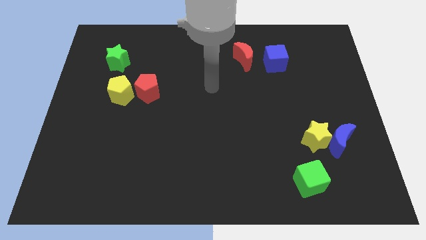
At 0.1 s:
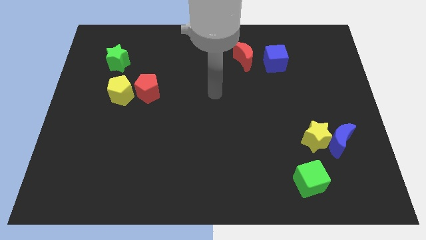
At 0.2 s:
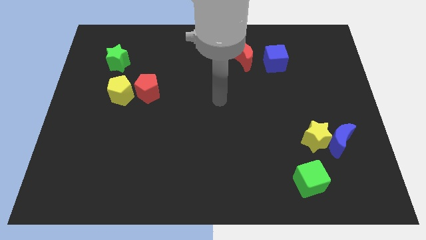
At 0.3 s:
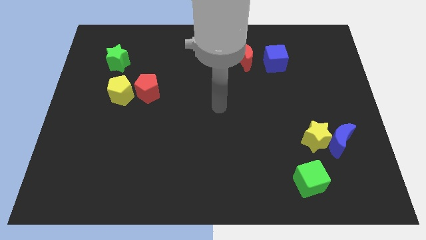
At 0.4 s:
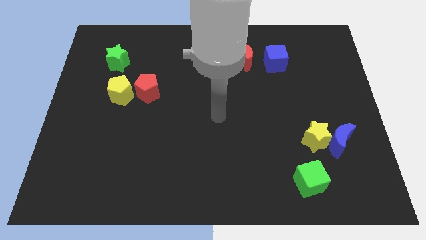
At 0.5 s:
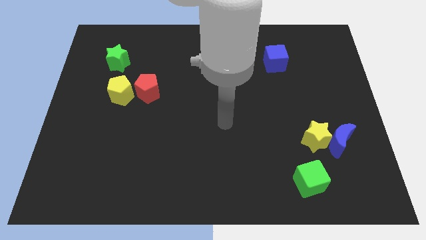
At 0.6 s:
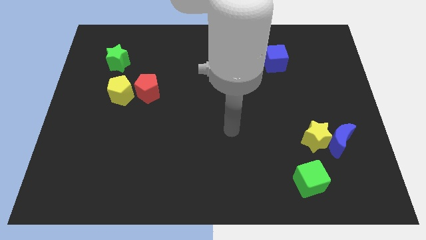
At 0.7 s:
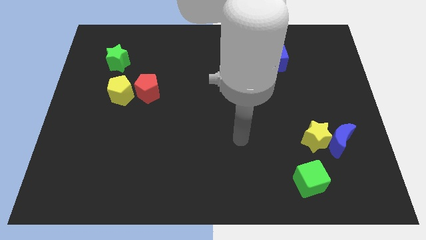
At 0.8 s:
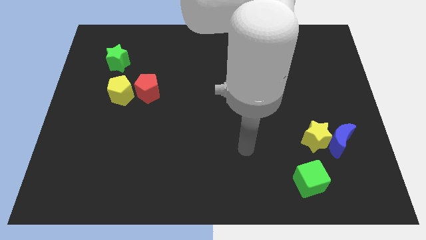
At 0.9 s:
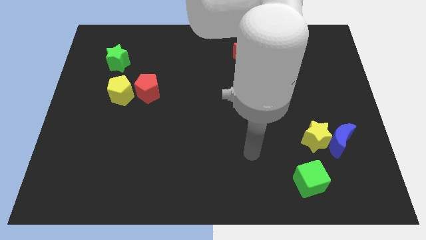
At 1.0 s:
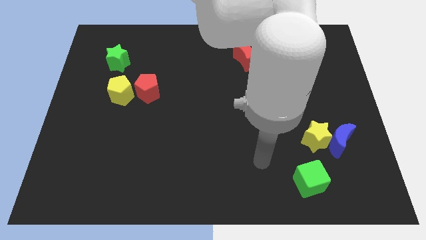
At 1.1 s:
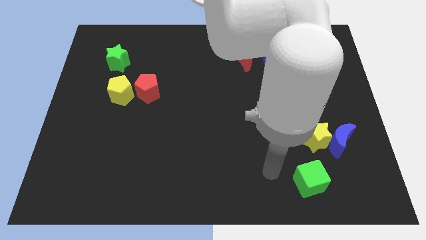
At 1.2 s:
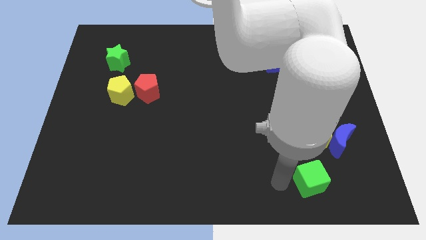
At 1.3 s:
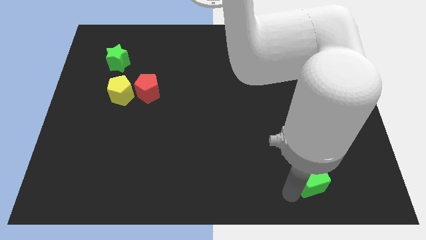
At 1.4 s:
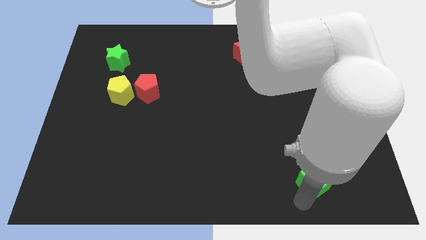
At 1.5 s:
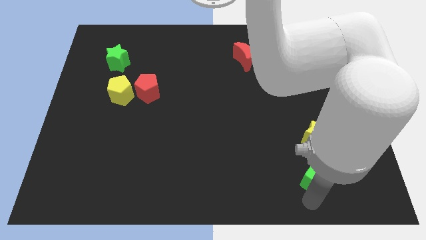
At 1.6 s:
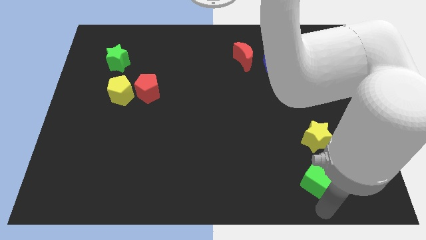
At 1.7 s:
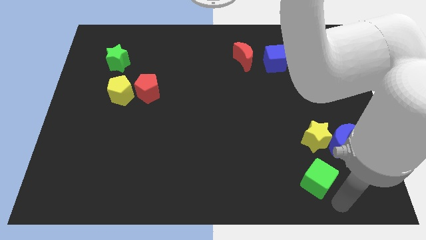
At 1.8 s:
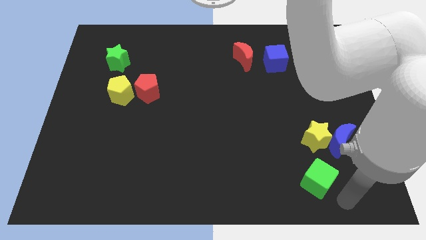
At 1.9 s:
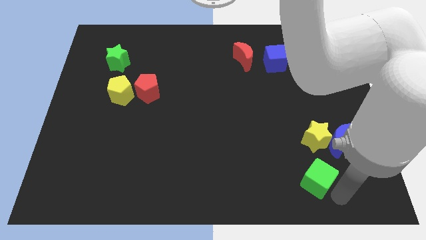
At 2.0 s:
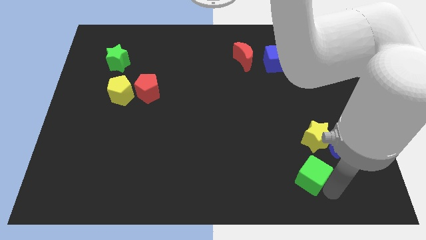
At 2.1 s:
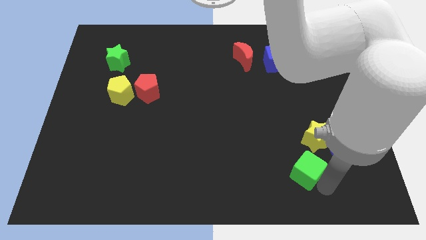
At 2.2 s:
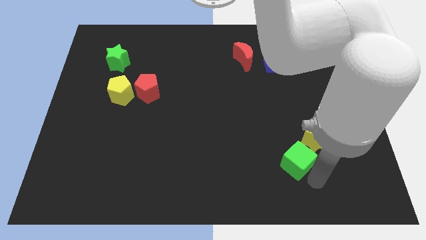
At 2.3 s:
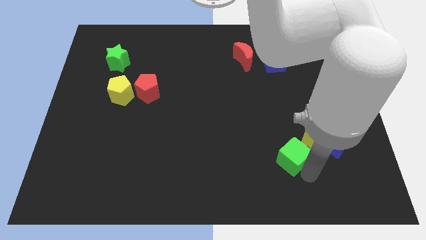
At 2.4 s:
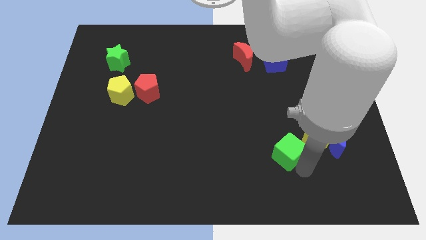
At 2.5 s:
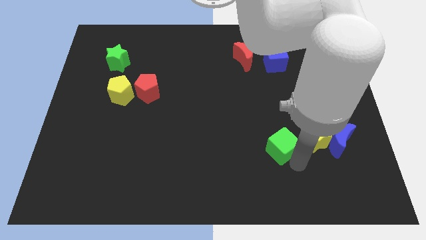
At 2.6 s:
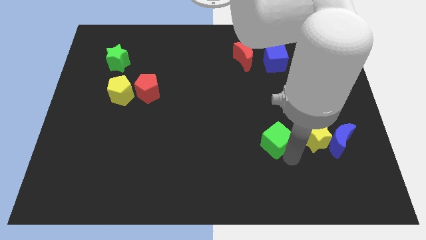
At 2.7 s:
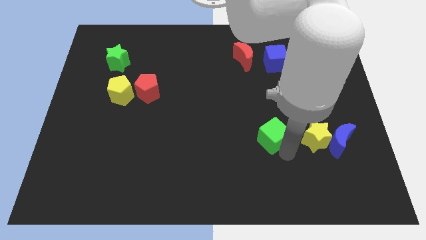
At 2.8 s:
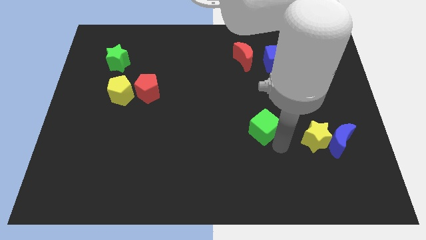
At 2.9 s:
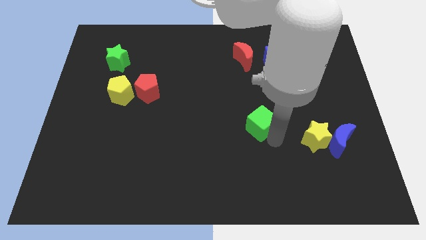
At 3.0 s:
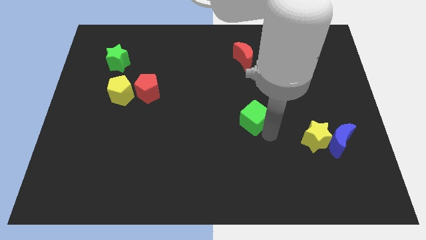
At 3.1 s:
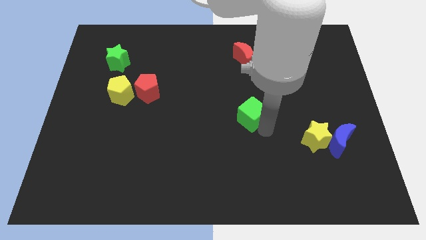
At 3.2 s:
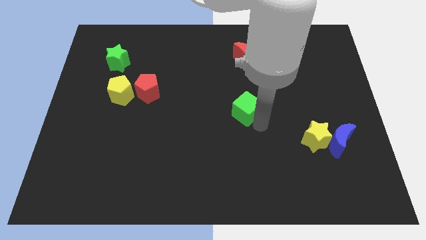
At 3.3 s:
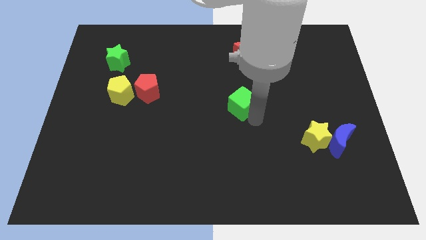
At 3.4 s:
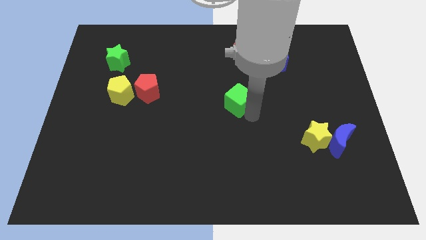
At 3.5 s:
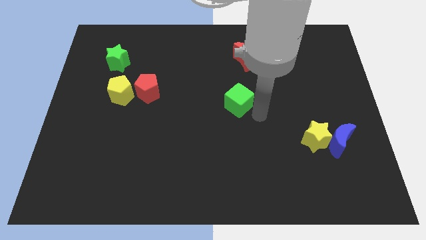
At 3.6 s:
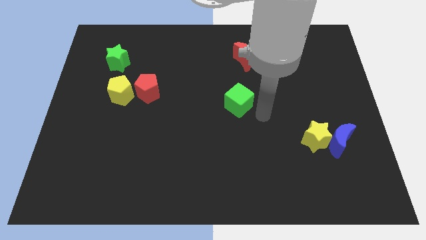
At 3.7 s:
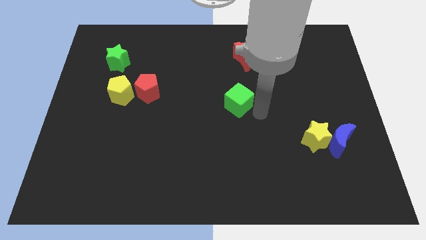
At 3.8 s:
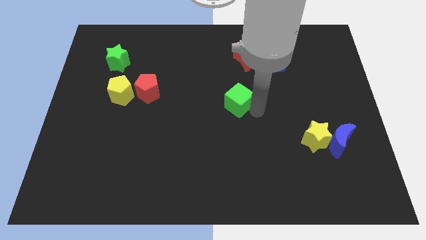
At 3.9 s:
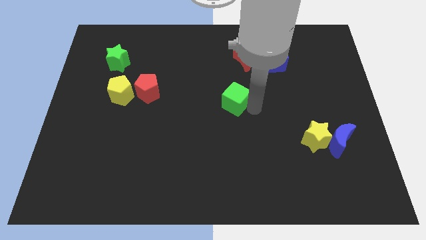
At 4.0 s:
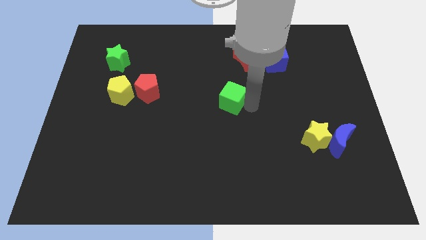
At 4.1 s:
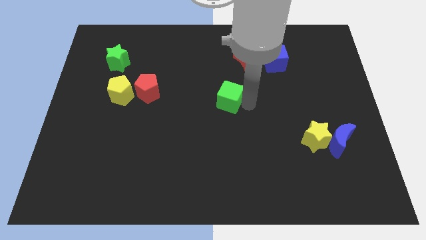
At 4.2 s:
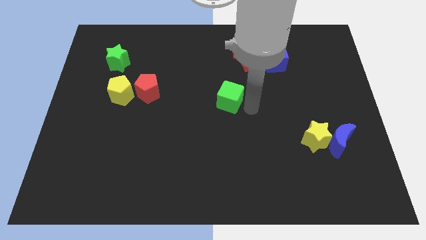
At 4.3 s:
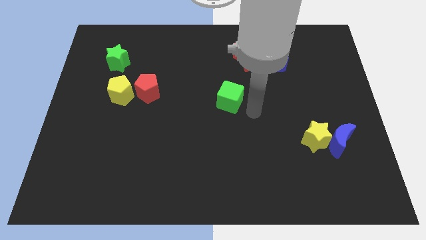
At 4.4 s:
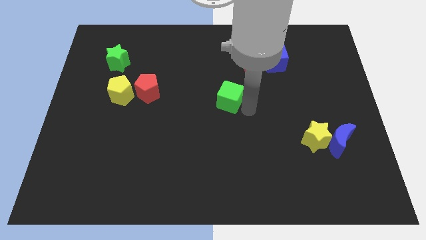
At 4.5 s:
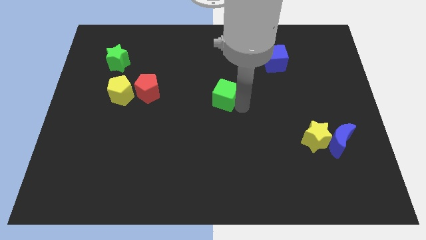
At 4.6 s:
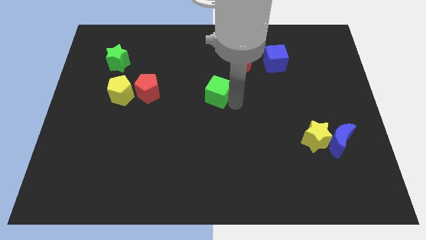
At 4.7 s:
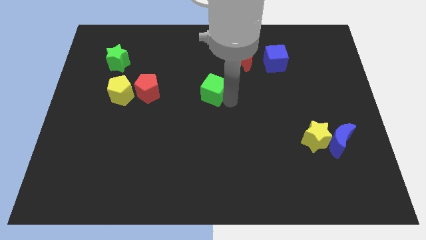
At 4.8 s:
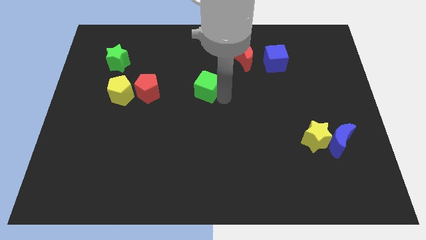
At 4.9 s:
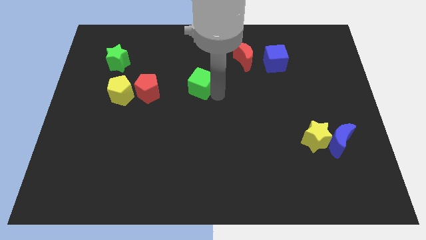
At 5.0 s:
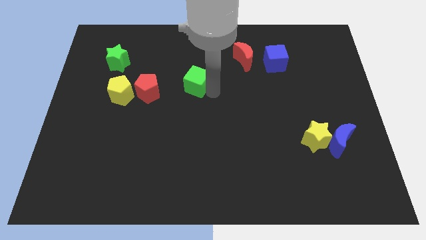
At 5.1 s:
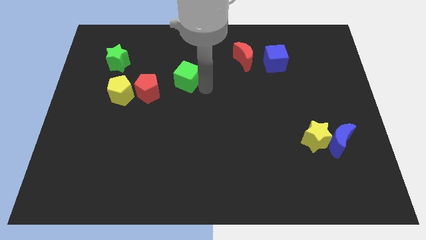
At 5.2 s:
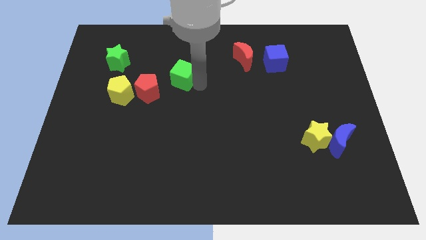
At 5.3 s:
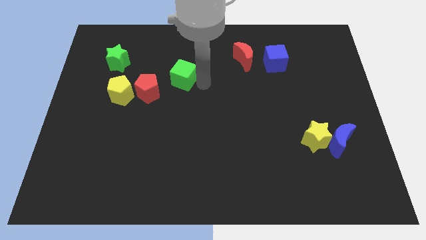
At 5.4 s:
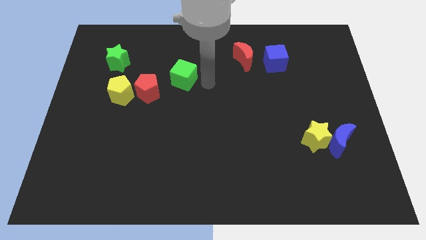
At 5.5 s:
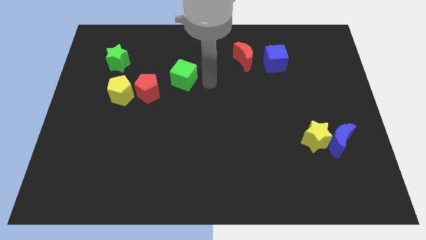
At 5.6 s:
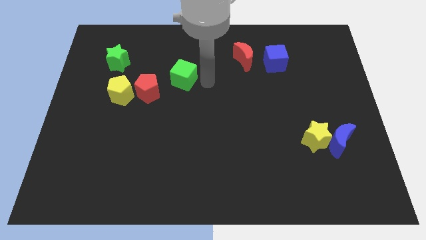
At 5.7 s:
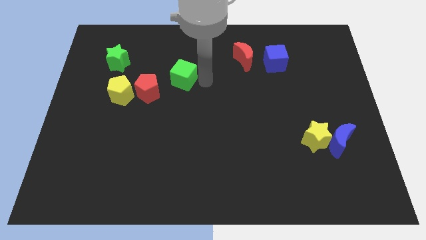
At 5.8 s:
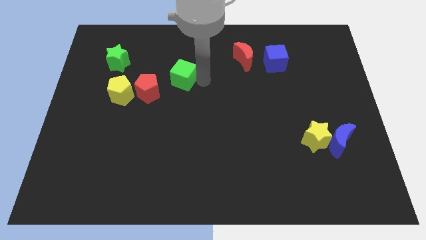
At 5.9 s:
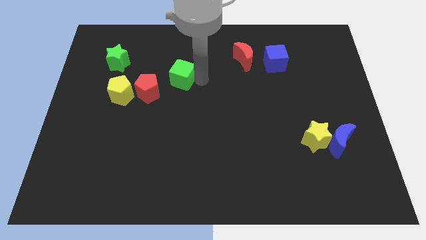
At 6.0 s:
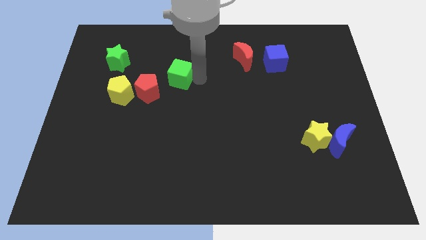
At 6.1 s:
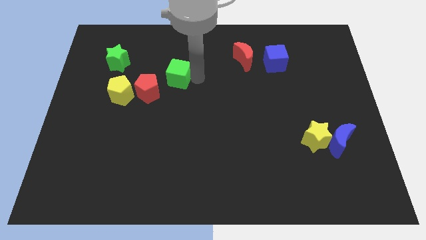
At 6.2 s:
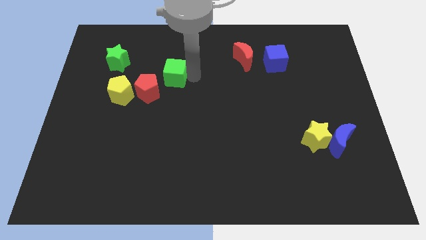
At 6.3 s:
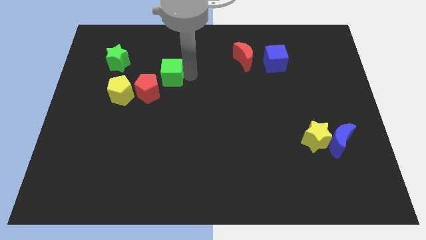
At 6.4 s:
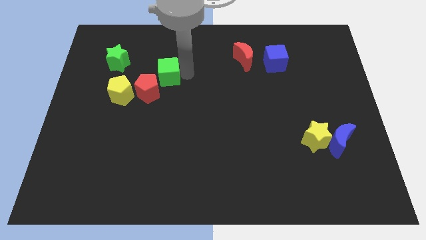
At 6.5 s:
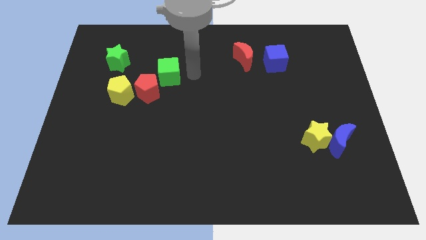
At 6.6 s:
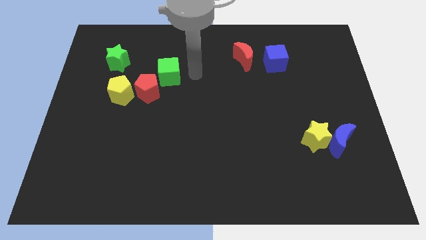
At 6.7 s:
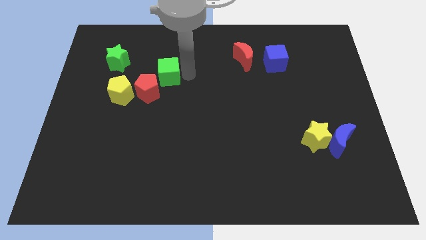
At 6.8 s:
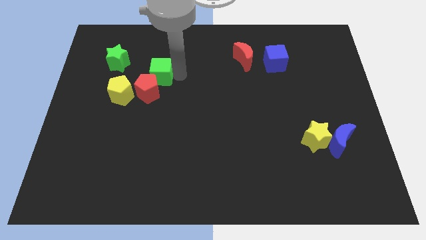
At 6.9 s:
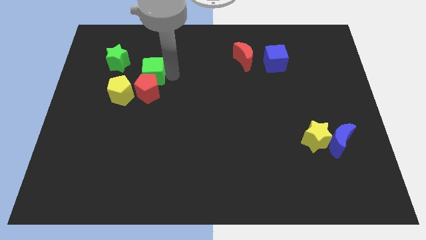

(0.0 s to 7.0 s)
push the green cube diagonally down and to the right of the green star
